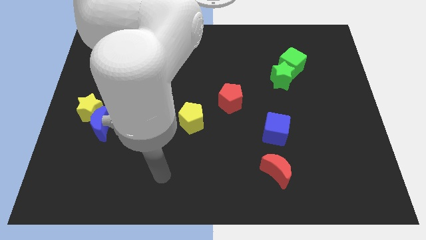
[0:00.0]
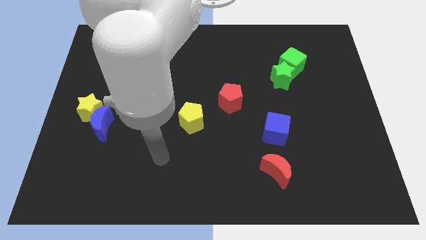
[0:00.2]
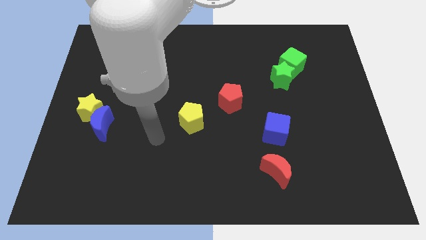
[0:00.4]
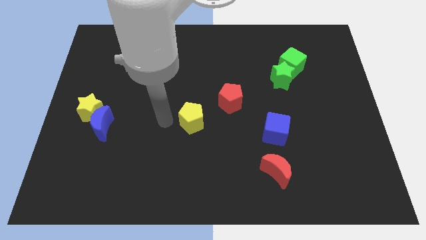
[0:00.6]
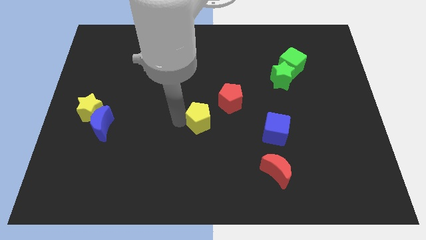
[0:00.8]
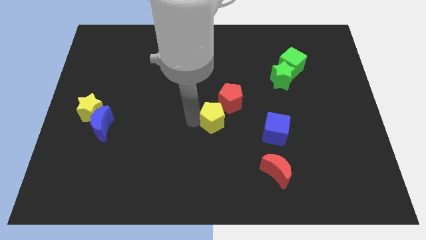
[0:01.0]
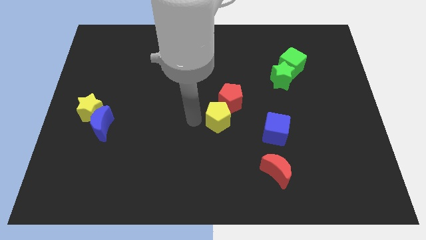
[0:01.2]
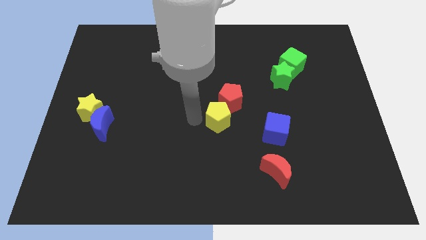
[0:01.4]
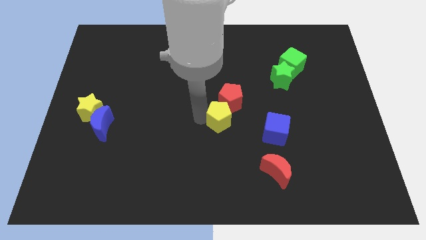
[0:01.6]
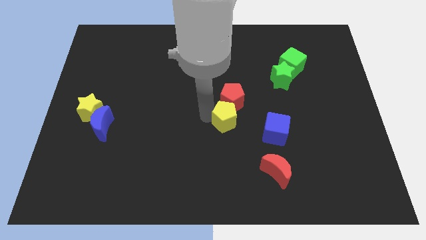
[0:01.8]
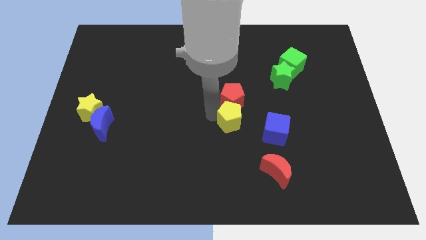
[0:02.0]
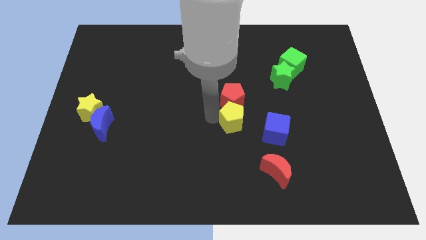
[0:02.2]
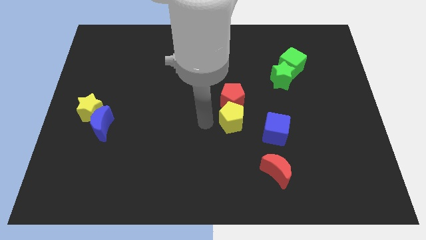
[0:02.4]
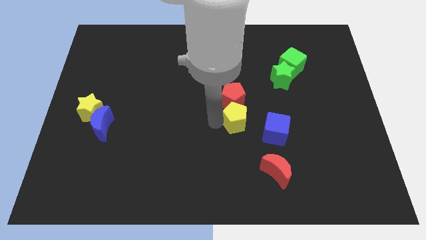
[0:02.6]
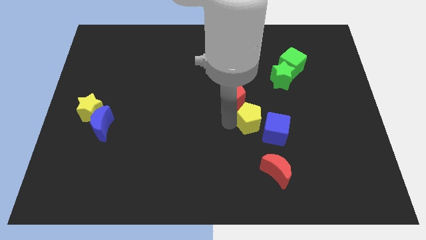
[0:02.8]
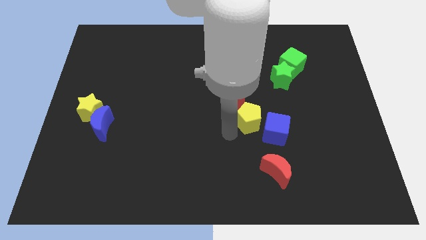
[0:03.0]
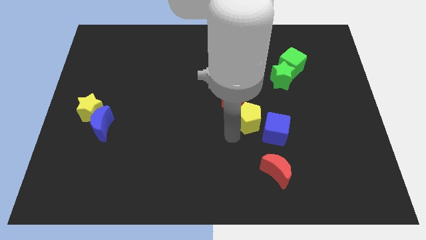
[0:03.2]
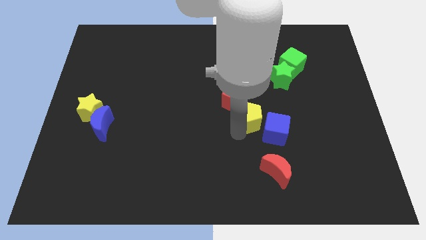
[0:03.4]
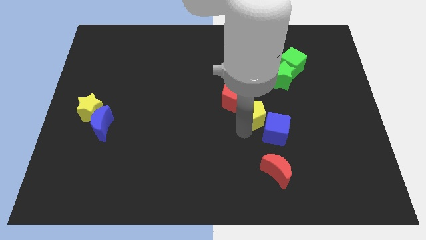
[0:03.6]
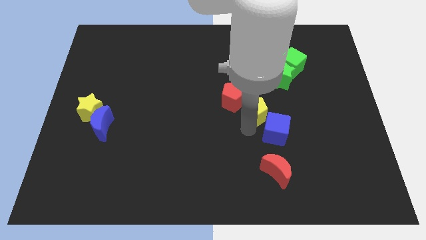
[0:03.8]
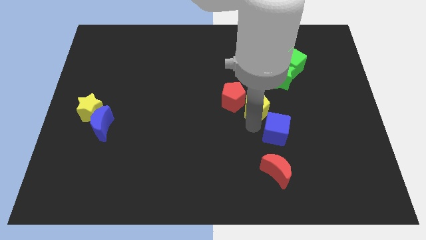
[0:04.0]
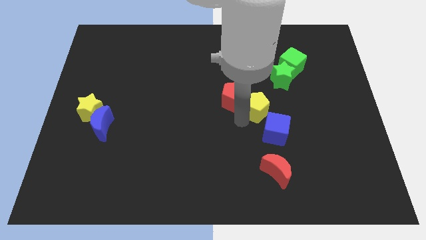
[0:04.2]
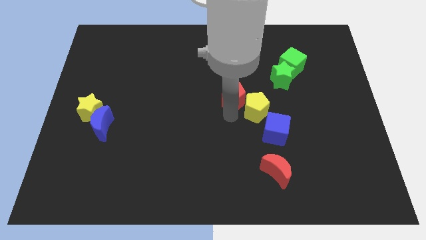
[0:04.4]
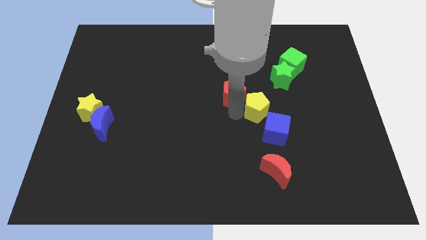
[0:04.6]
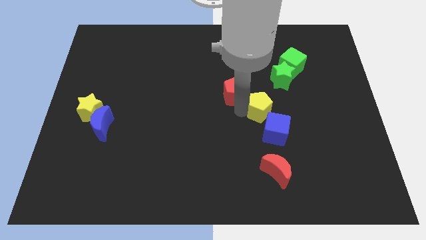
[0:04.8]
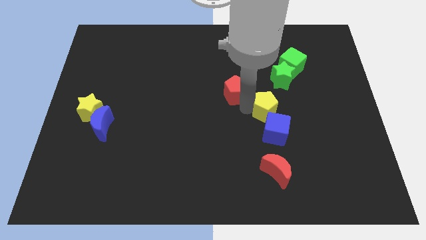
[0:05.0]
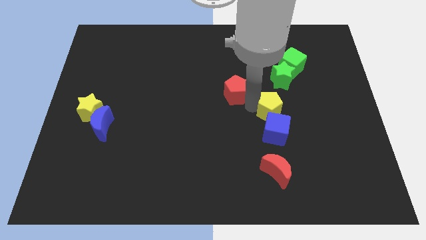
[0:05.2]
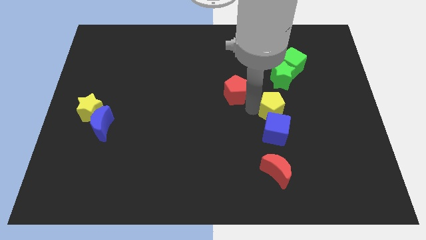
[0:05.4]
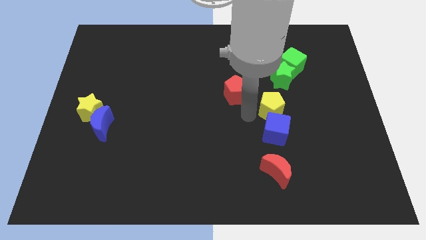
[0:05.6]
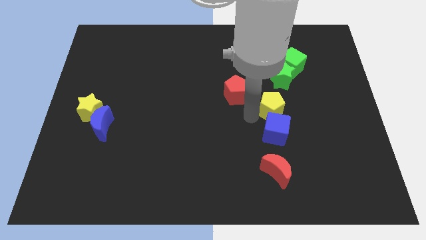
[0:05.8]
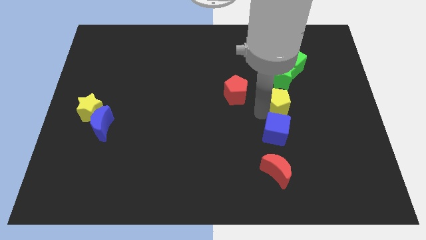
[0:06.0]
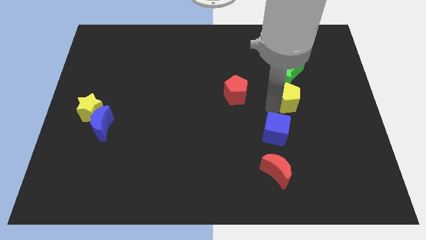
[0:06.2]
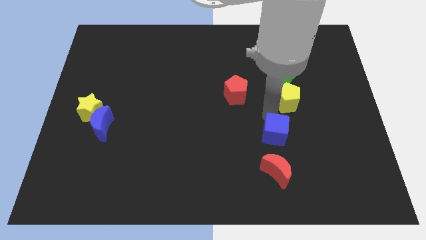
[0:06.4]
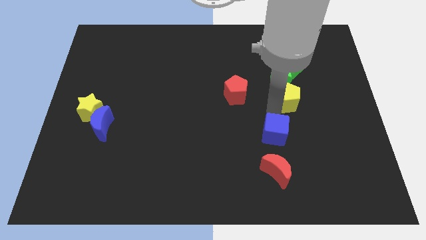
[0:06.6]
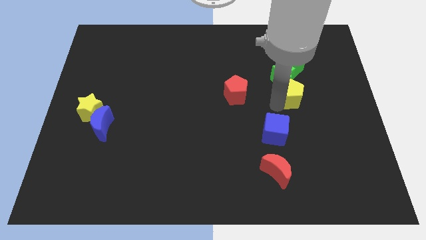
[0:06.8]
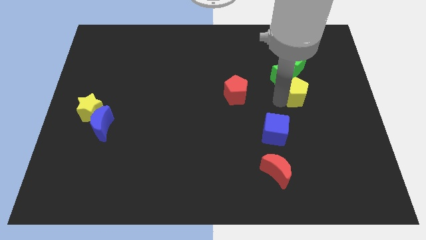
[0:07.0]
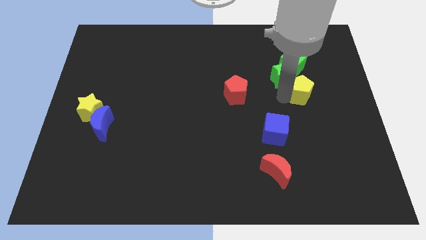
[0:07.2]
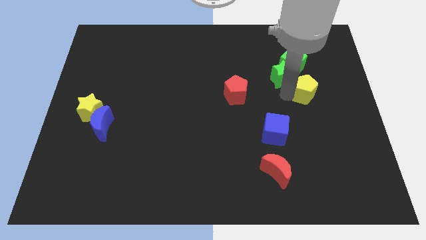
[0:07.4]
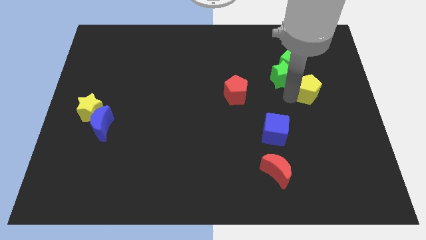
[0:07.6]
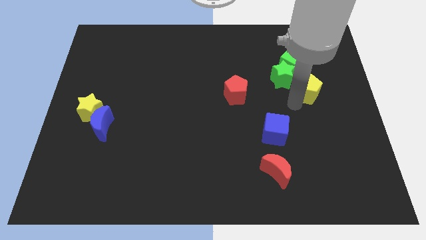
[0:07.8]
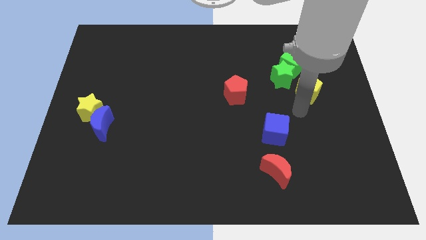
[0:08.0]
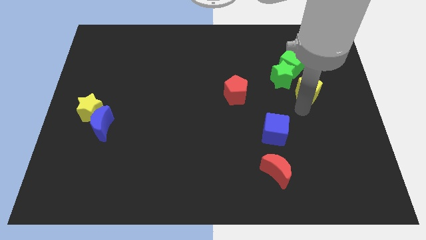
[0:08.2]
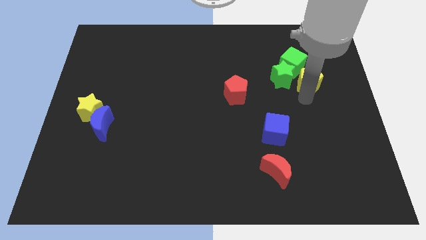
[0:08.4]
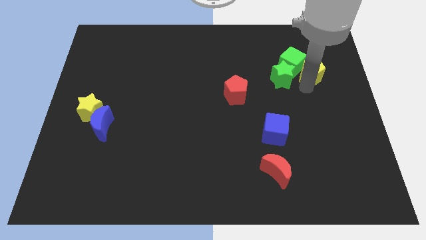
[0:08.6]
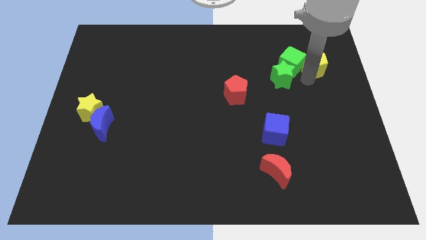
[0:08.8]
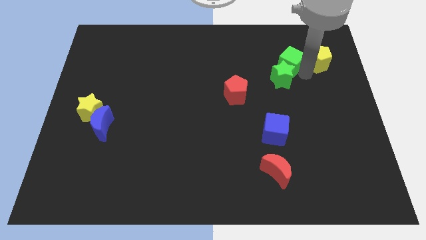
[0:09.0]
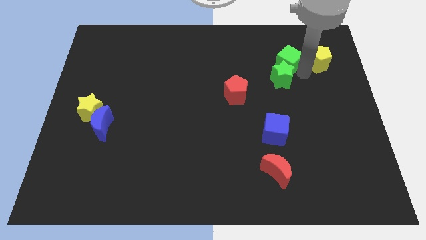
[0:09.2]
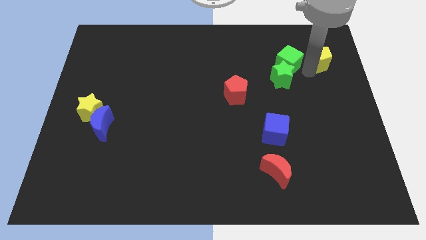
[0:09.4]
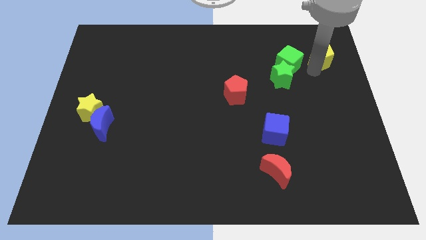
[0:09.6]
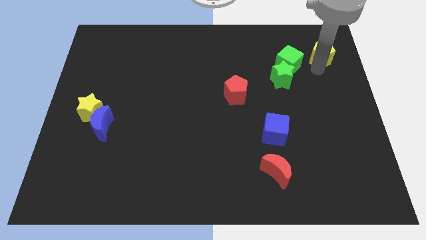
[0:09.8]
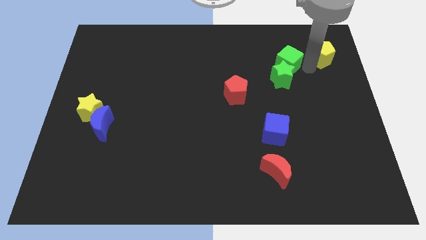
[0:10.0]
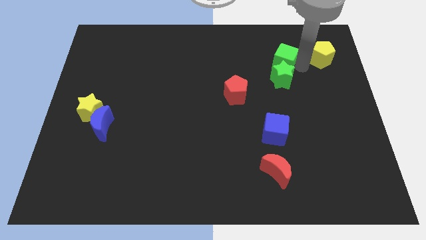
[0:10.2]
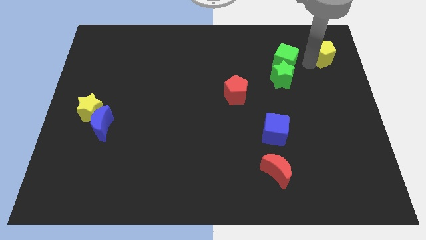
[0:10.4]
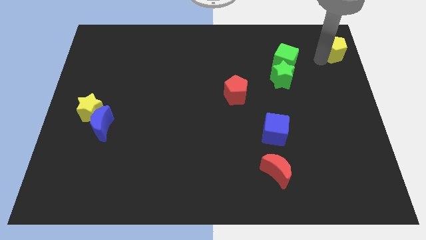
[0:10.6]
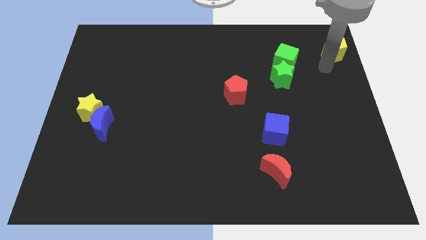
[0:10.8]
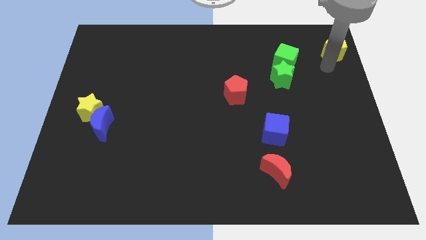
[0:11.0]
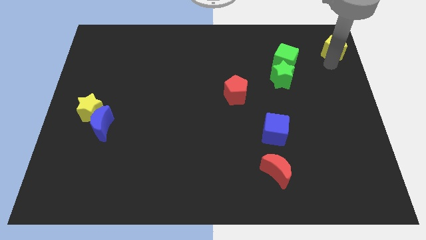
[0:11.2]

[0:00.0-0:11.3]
push the yellow pentagon to the top right

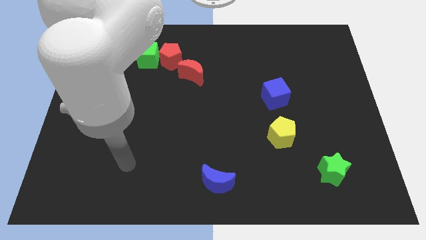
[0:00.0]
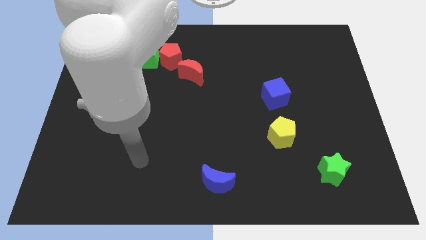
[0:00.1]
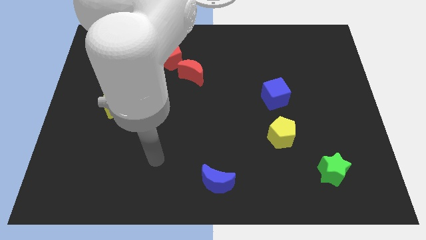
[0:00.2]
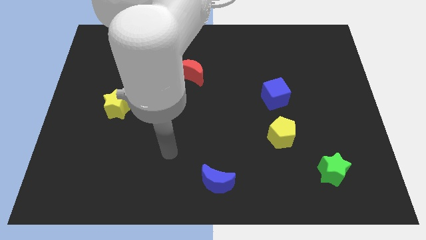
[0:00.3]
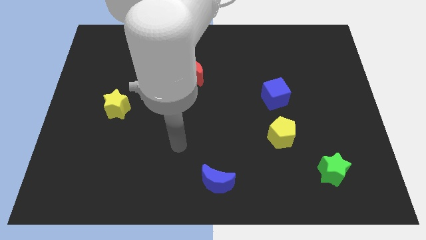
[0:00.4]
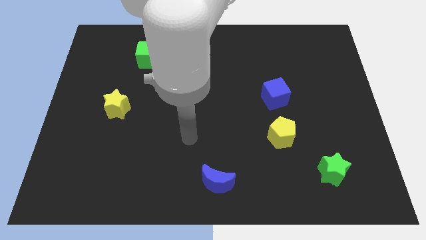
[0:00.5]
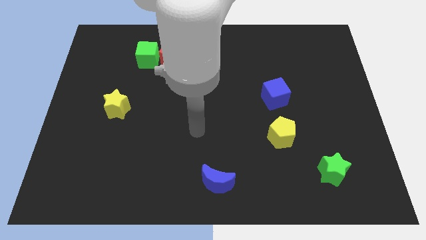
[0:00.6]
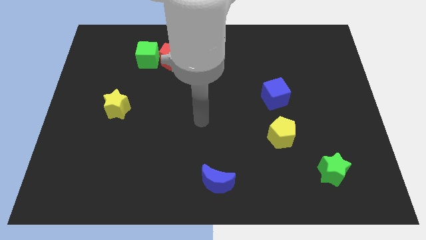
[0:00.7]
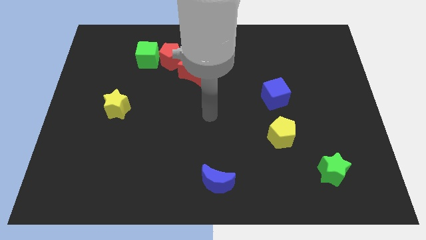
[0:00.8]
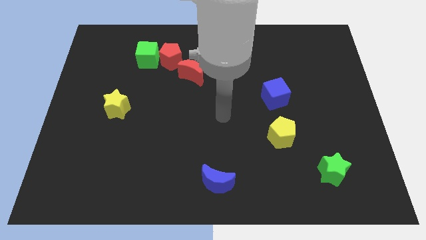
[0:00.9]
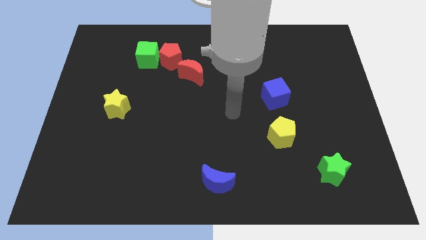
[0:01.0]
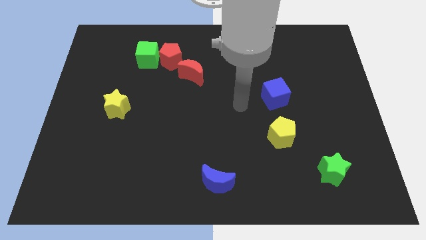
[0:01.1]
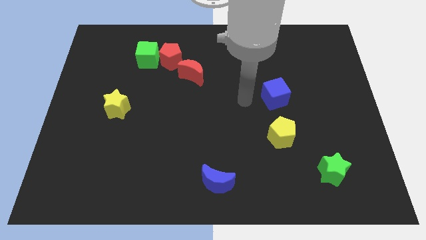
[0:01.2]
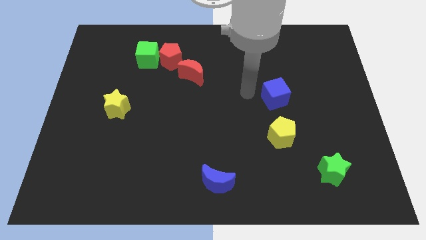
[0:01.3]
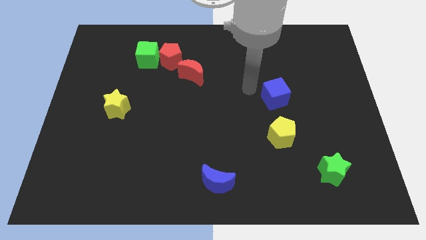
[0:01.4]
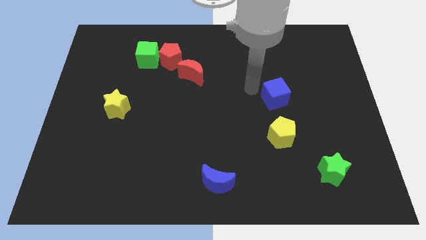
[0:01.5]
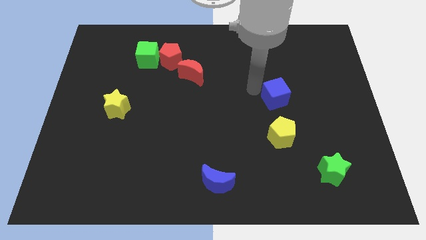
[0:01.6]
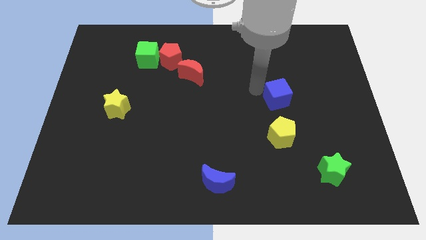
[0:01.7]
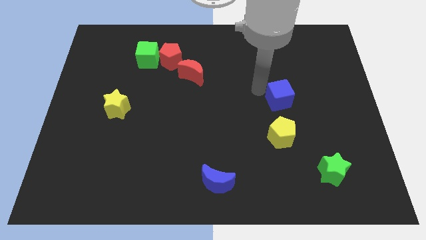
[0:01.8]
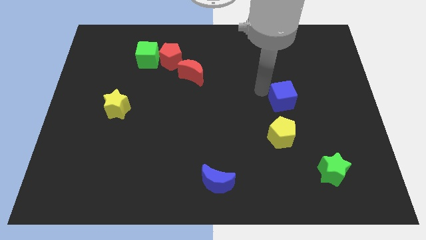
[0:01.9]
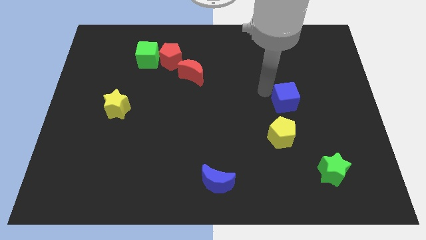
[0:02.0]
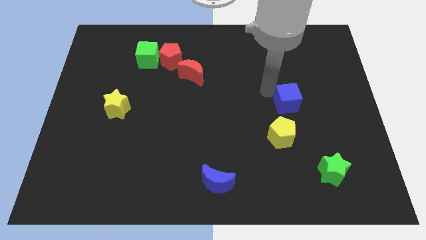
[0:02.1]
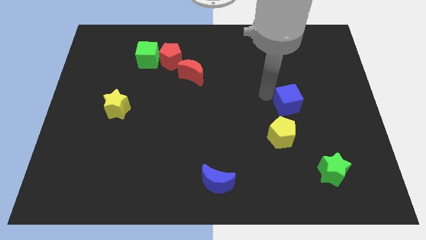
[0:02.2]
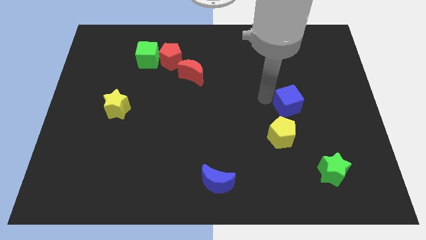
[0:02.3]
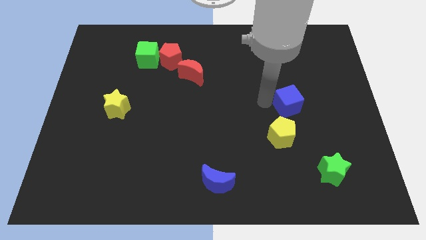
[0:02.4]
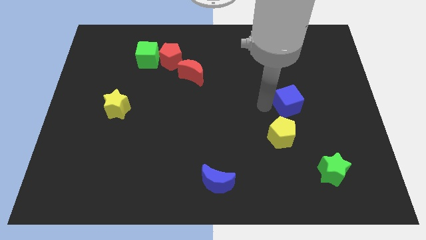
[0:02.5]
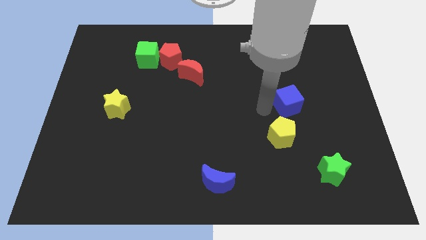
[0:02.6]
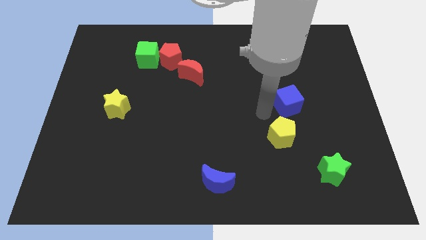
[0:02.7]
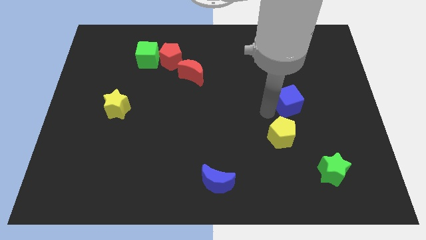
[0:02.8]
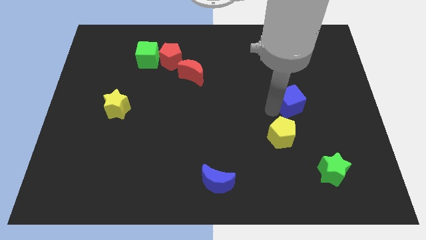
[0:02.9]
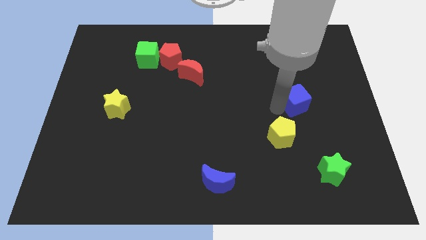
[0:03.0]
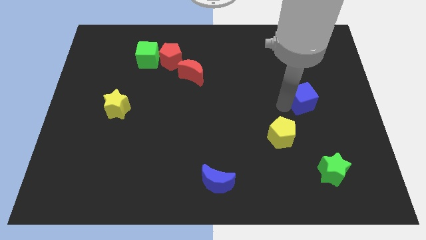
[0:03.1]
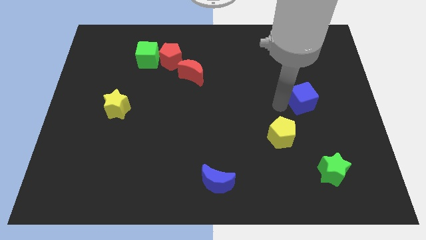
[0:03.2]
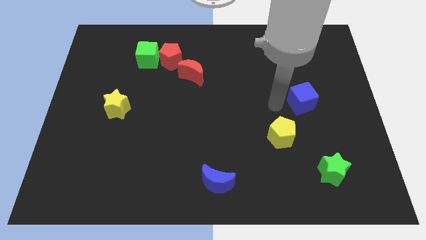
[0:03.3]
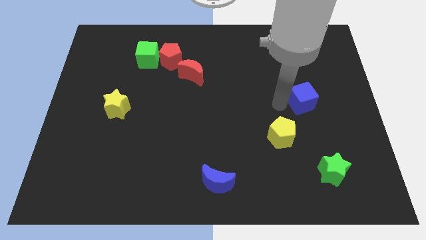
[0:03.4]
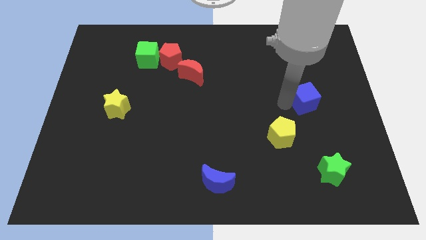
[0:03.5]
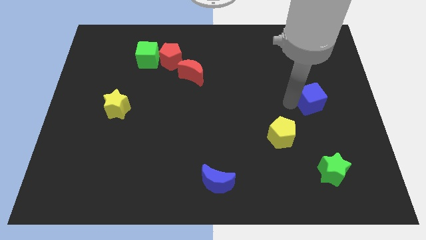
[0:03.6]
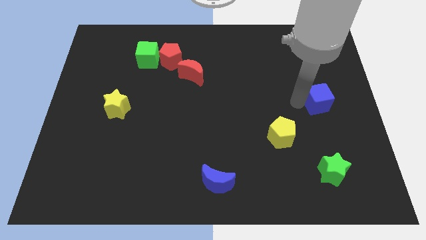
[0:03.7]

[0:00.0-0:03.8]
slide the blue cube to the right side of the board
